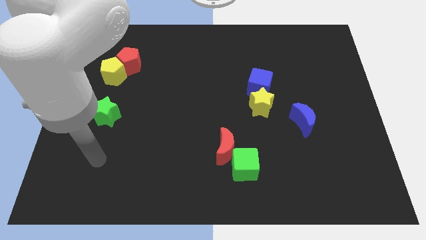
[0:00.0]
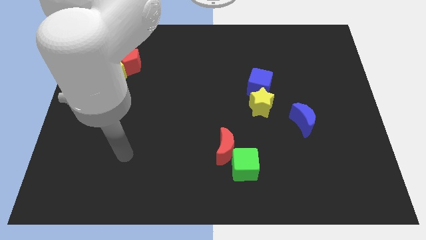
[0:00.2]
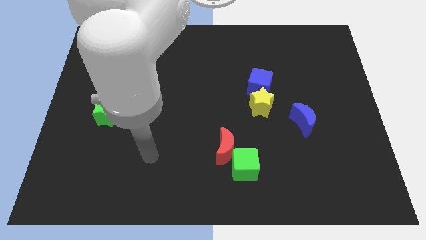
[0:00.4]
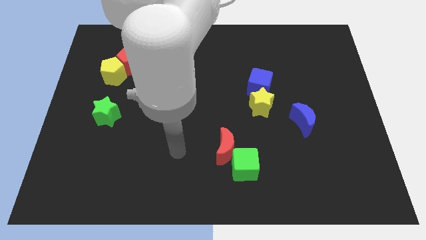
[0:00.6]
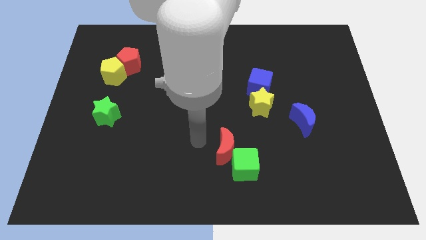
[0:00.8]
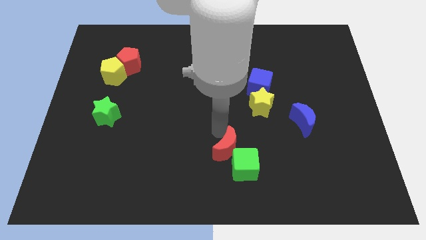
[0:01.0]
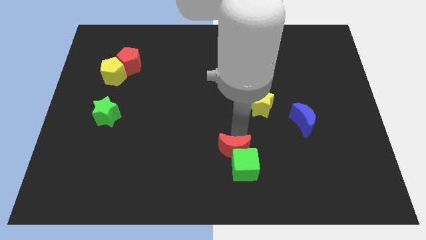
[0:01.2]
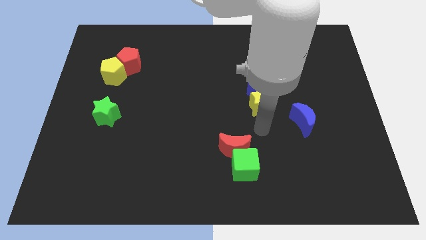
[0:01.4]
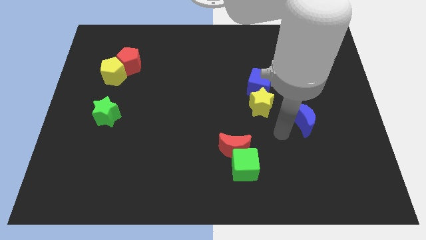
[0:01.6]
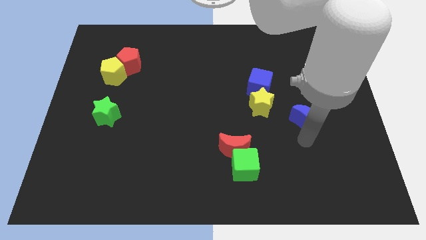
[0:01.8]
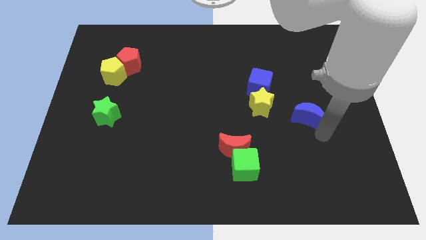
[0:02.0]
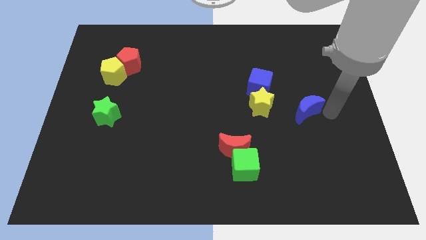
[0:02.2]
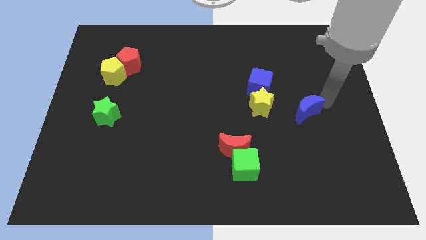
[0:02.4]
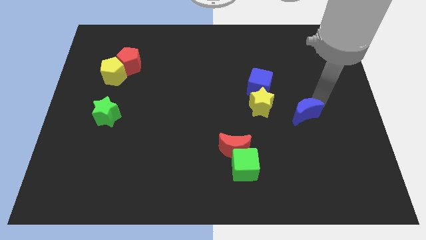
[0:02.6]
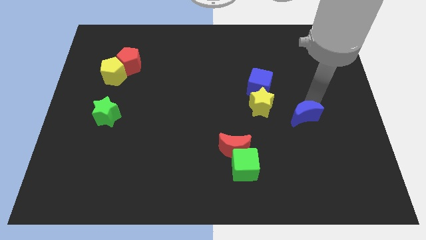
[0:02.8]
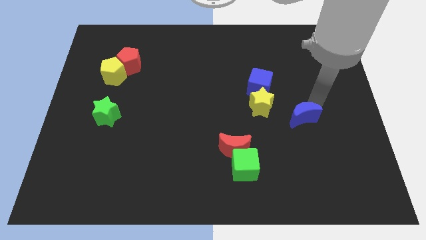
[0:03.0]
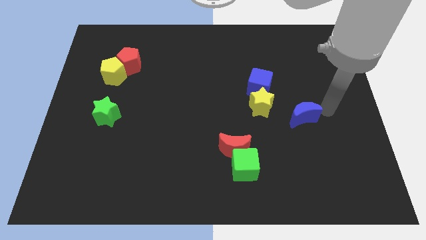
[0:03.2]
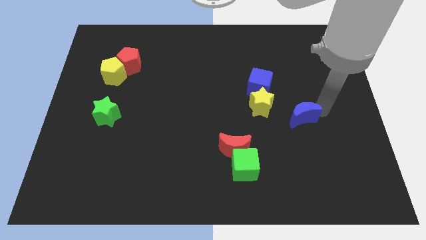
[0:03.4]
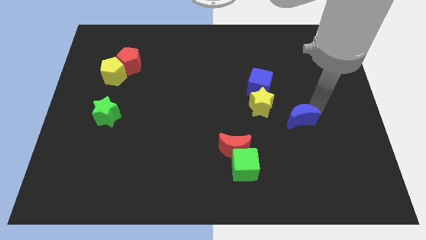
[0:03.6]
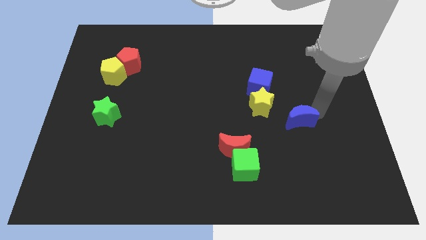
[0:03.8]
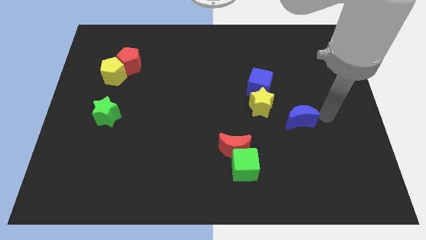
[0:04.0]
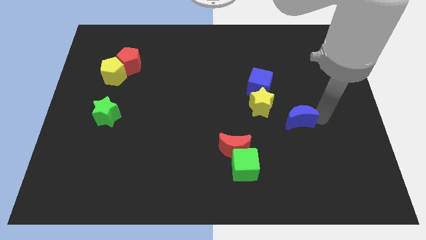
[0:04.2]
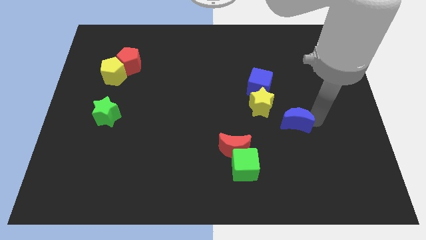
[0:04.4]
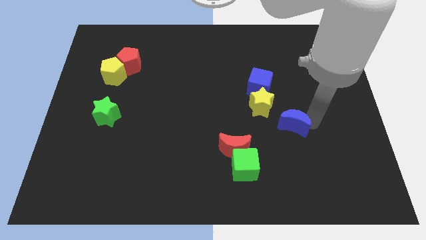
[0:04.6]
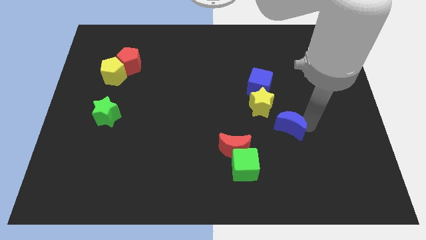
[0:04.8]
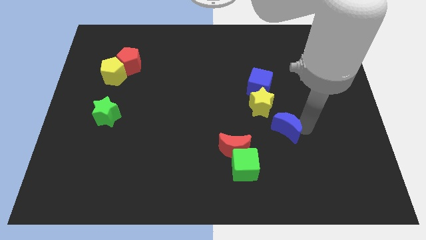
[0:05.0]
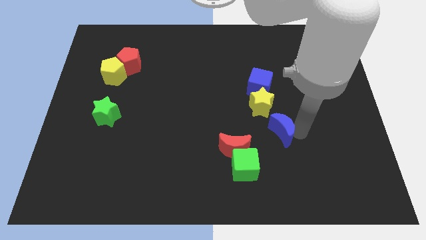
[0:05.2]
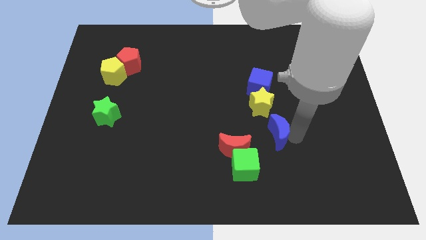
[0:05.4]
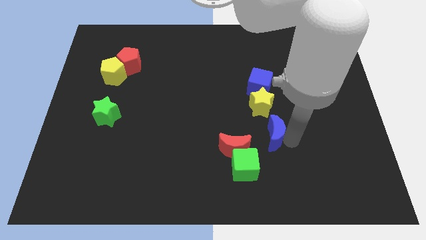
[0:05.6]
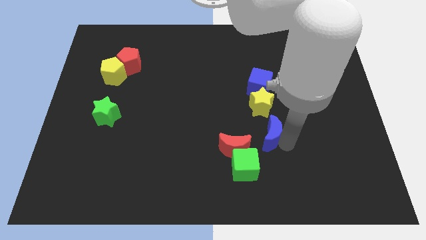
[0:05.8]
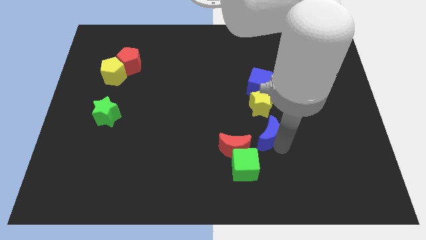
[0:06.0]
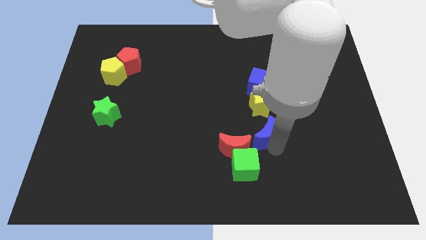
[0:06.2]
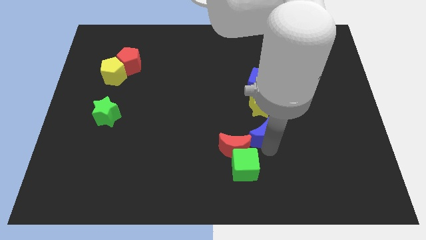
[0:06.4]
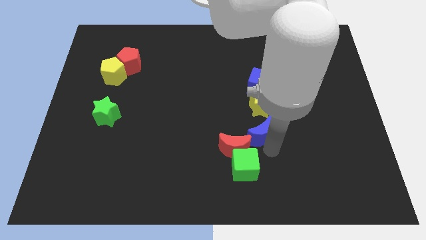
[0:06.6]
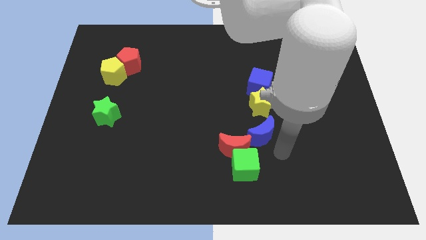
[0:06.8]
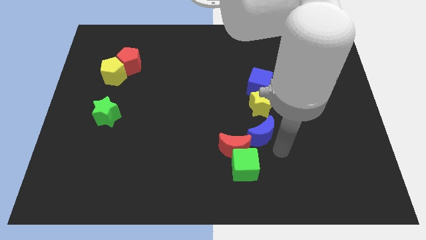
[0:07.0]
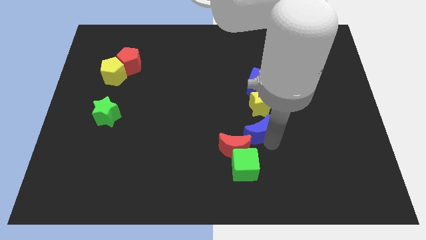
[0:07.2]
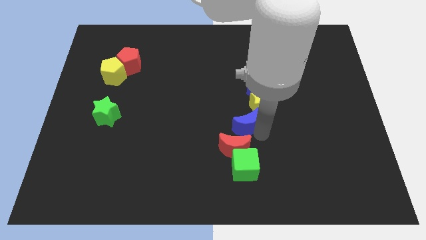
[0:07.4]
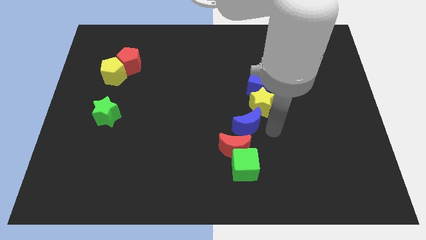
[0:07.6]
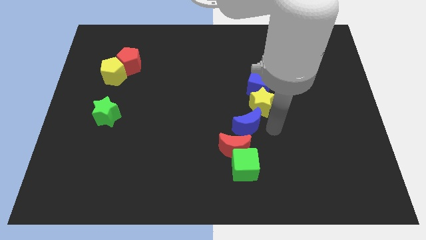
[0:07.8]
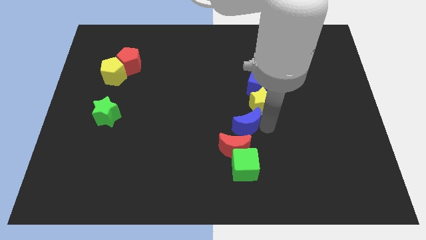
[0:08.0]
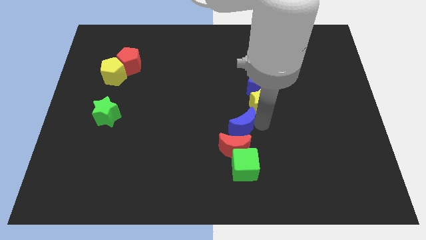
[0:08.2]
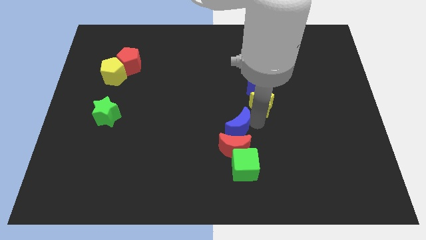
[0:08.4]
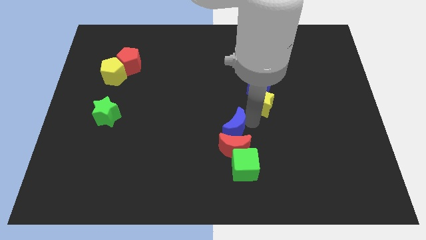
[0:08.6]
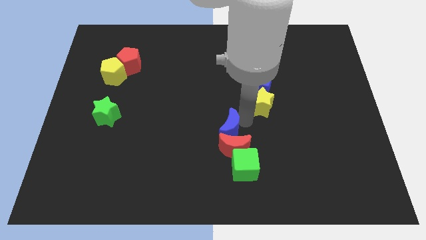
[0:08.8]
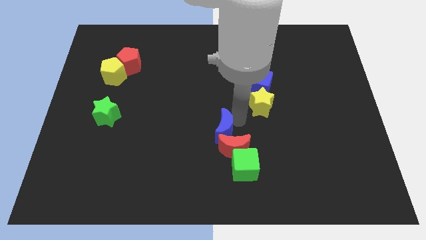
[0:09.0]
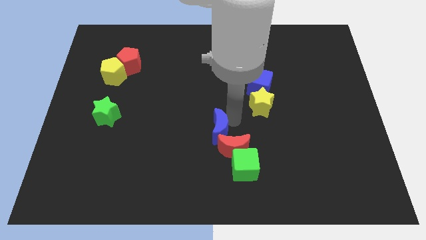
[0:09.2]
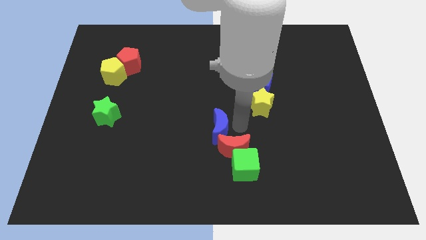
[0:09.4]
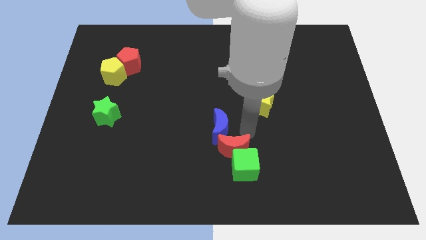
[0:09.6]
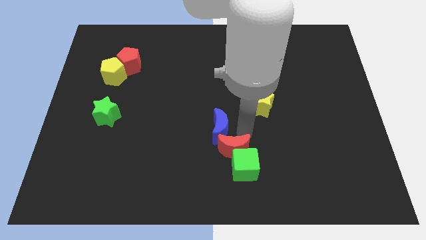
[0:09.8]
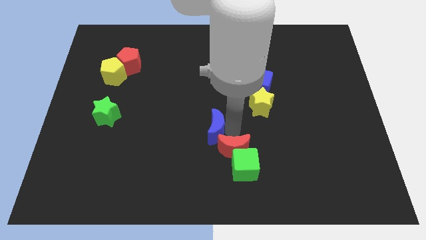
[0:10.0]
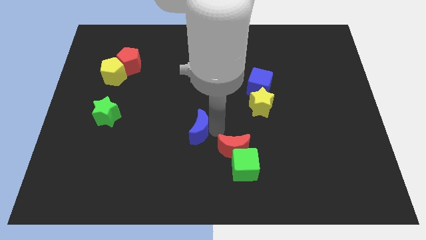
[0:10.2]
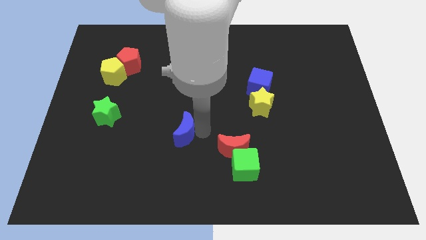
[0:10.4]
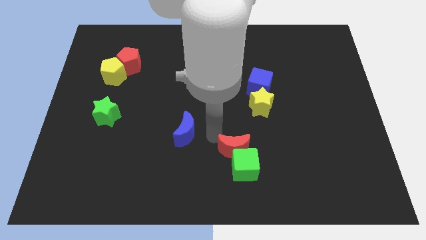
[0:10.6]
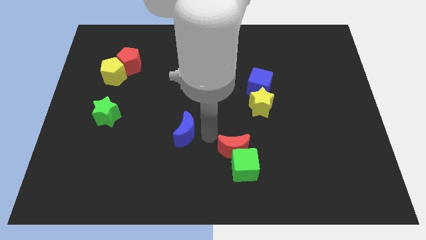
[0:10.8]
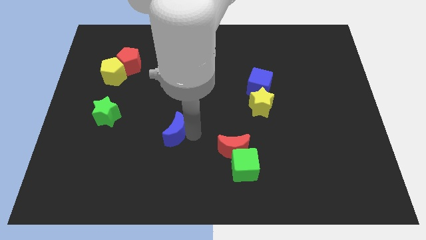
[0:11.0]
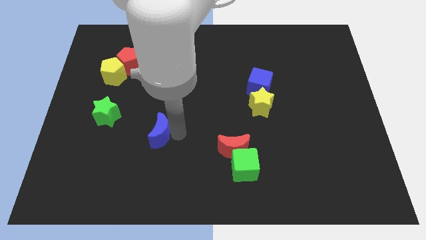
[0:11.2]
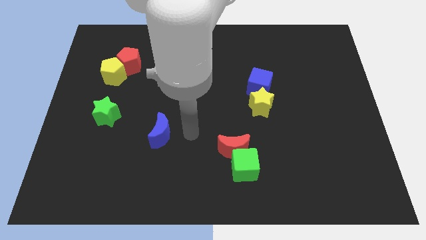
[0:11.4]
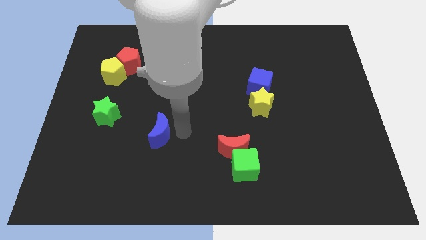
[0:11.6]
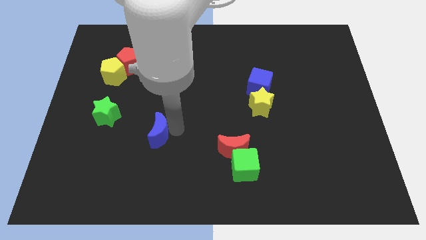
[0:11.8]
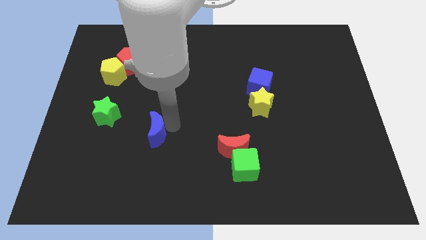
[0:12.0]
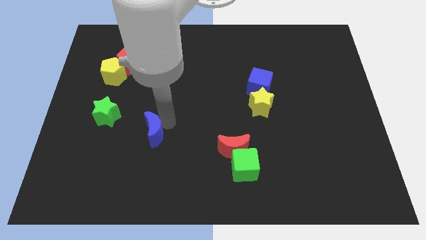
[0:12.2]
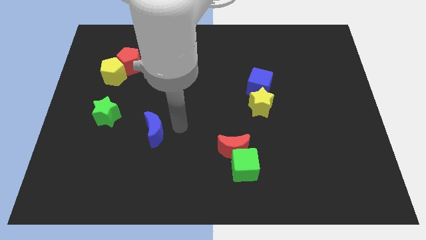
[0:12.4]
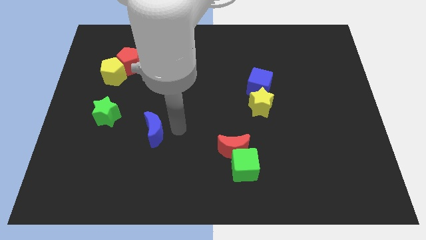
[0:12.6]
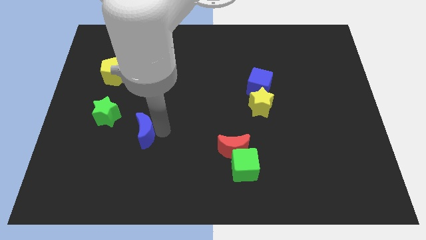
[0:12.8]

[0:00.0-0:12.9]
push the blue moon to the bottom right of the green star

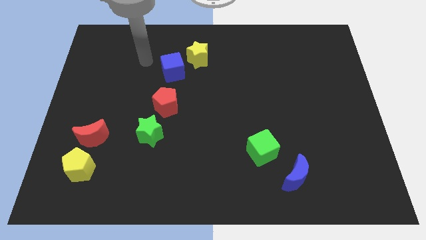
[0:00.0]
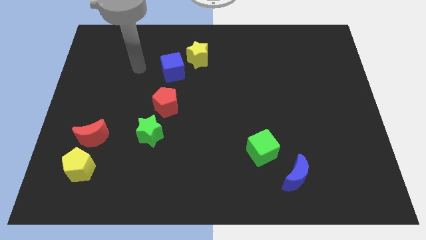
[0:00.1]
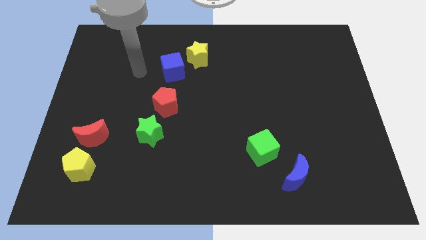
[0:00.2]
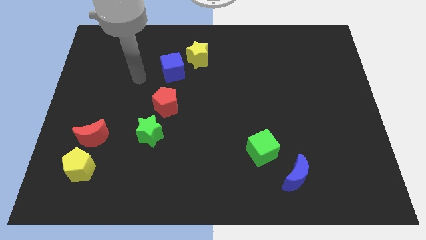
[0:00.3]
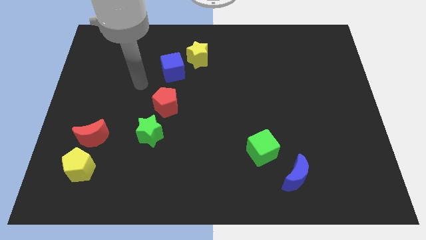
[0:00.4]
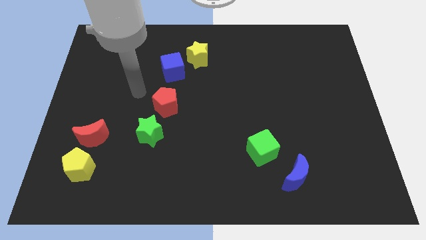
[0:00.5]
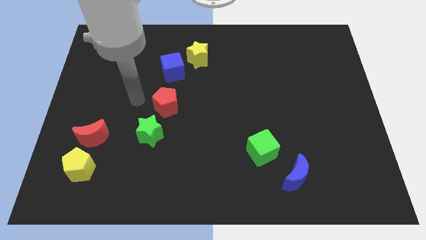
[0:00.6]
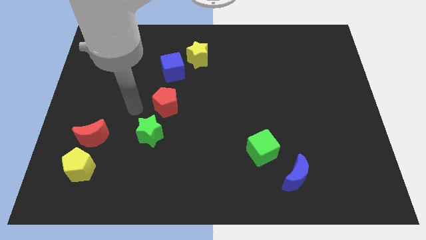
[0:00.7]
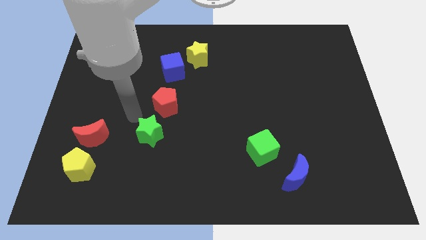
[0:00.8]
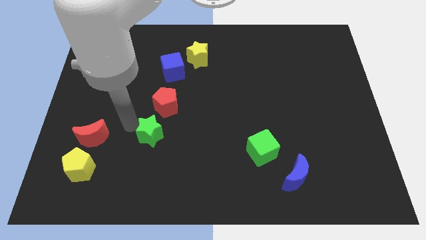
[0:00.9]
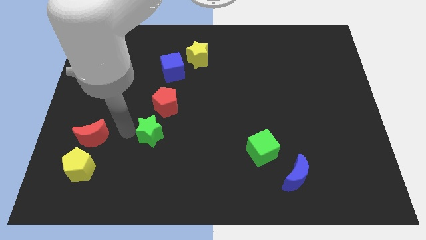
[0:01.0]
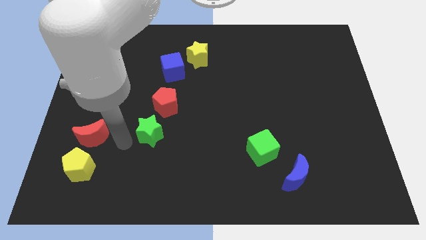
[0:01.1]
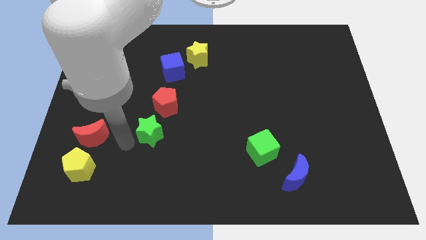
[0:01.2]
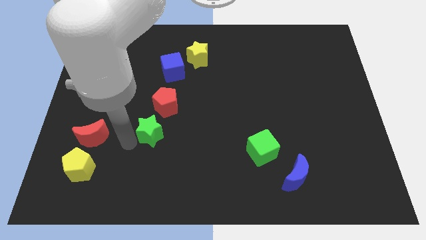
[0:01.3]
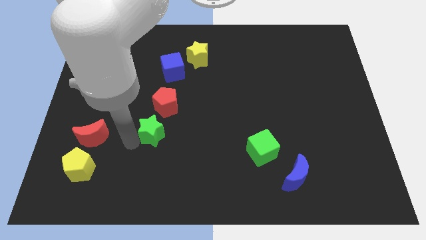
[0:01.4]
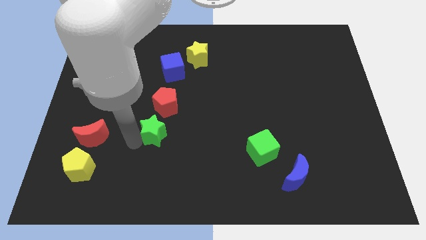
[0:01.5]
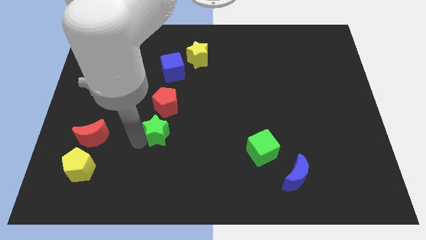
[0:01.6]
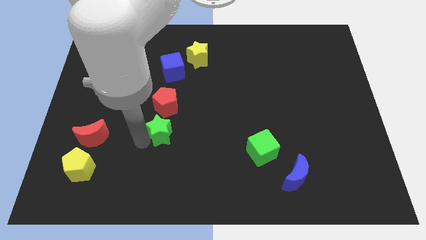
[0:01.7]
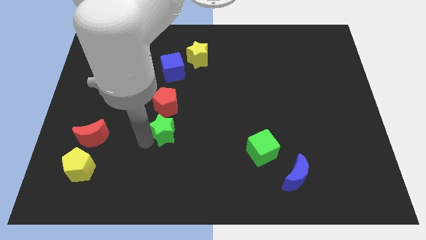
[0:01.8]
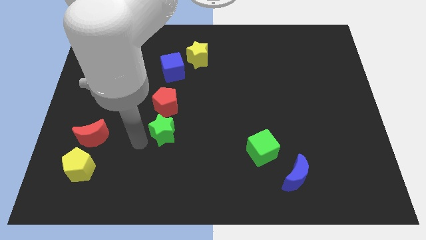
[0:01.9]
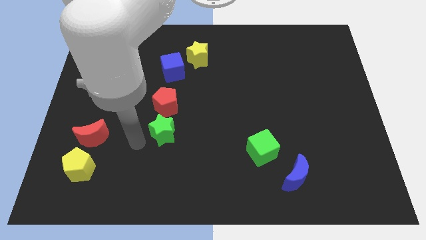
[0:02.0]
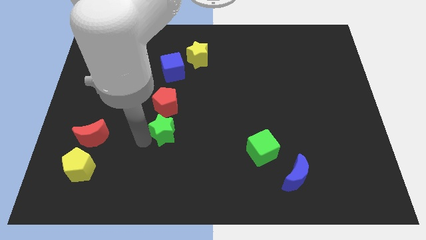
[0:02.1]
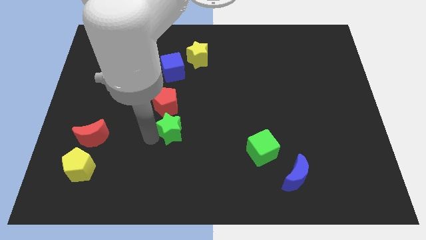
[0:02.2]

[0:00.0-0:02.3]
slide the green star to the bottom right of the red pentagon
